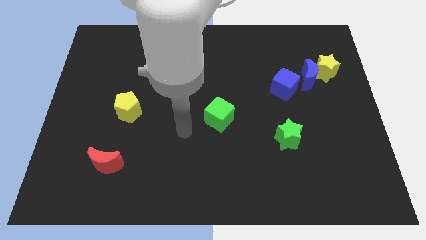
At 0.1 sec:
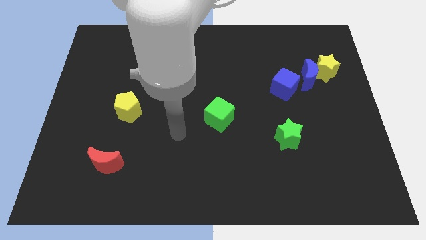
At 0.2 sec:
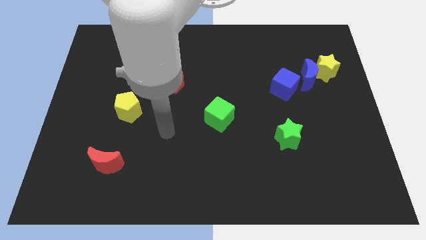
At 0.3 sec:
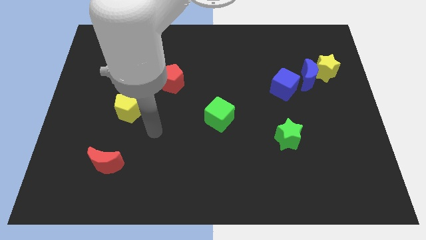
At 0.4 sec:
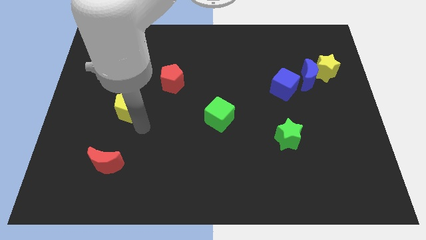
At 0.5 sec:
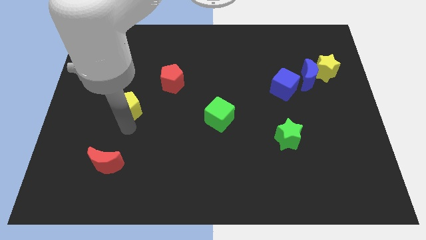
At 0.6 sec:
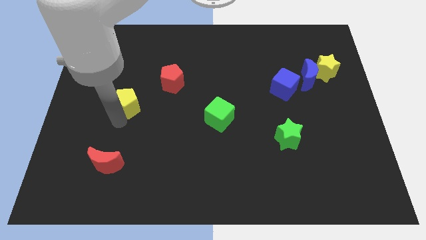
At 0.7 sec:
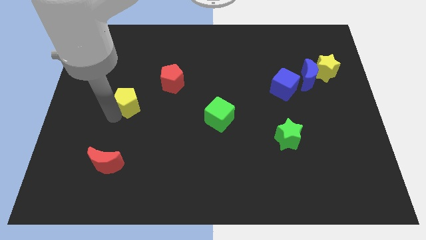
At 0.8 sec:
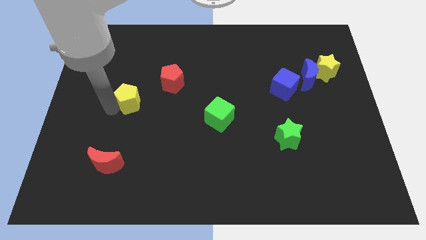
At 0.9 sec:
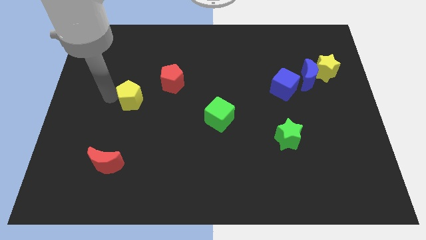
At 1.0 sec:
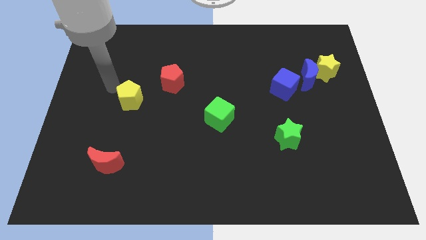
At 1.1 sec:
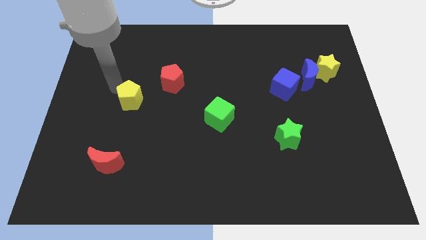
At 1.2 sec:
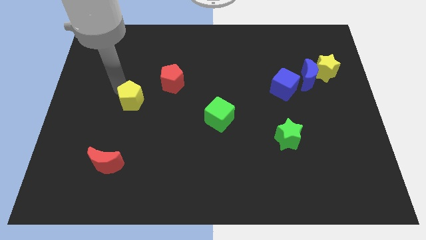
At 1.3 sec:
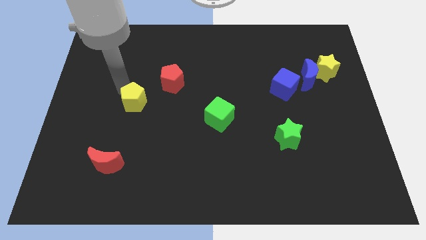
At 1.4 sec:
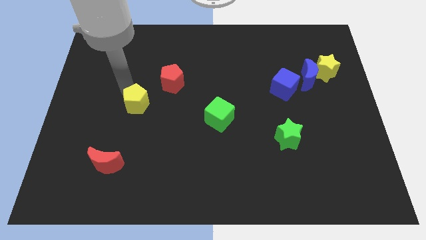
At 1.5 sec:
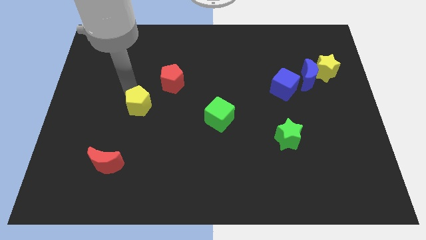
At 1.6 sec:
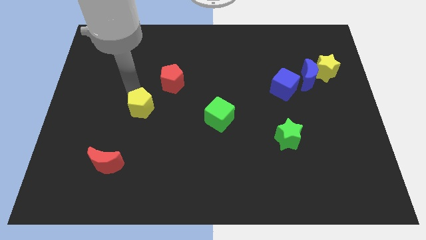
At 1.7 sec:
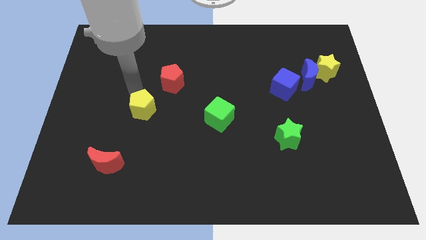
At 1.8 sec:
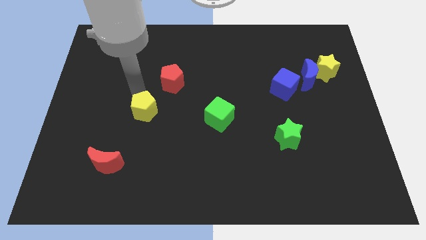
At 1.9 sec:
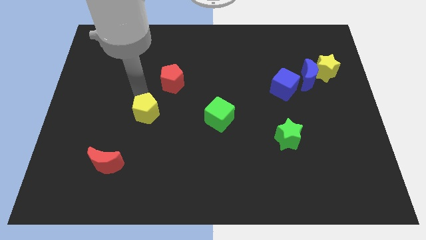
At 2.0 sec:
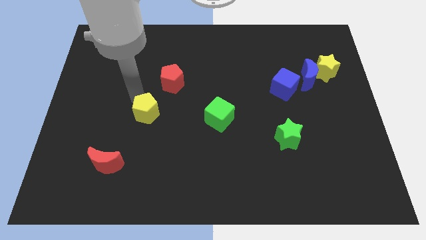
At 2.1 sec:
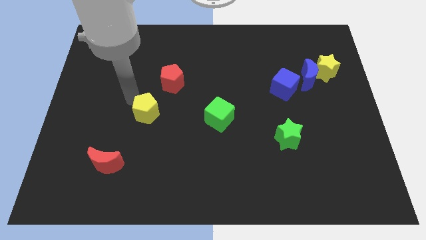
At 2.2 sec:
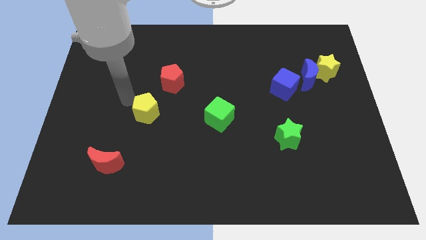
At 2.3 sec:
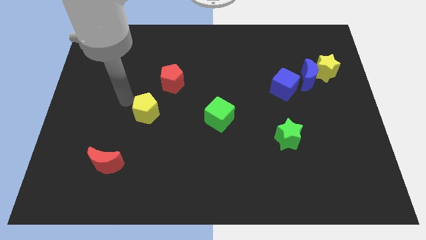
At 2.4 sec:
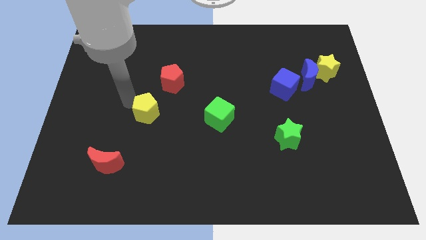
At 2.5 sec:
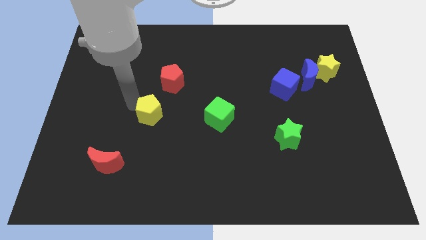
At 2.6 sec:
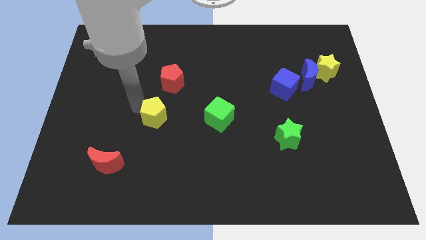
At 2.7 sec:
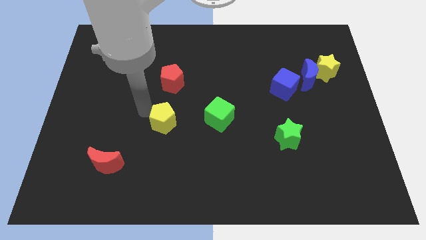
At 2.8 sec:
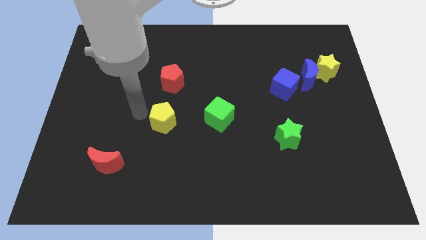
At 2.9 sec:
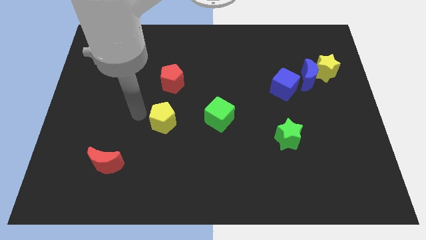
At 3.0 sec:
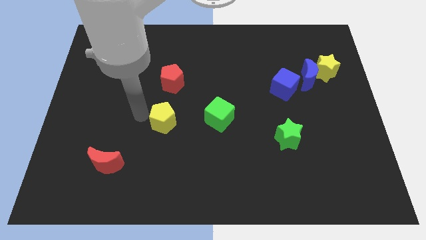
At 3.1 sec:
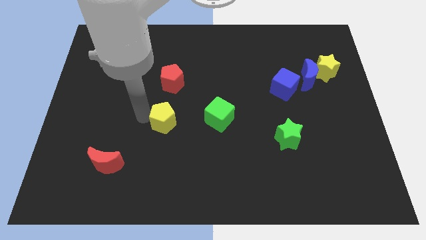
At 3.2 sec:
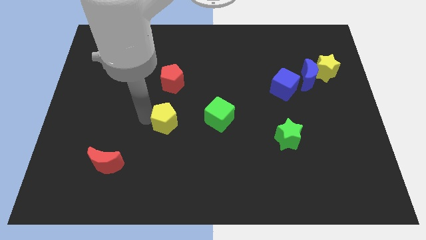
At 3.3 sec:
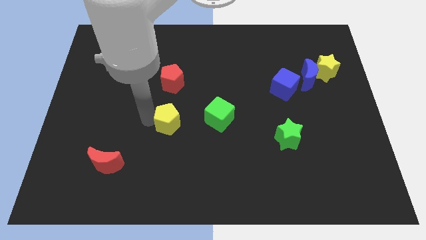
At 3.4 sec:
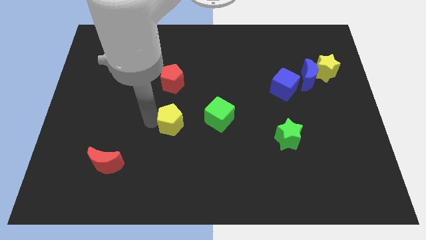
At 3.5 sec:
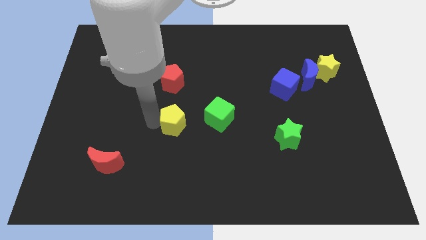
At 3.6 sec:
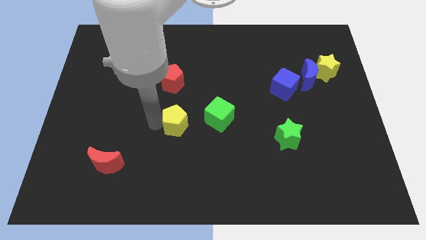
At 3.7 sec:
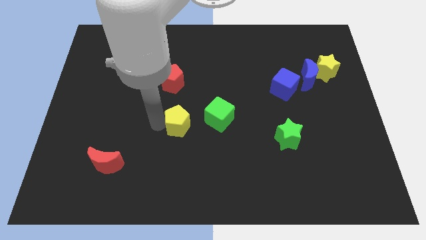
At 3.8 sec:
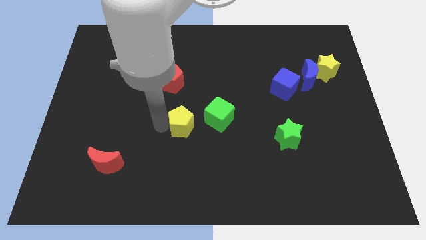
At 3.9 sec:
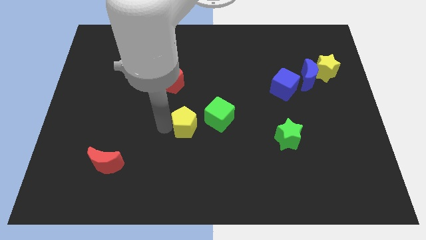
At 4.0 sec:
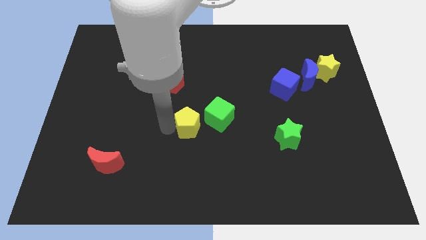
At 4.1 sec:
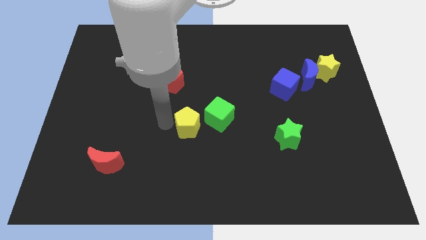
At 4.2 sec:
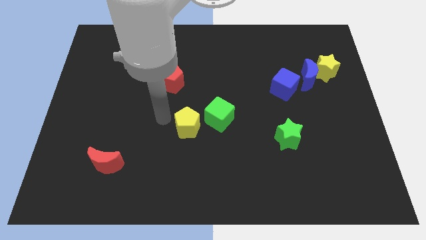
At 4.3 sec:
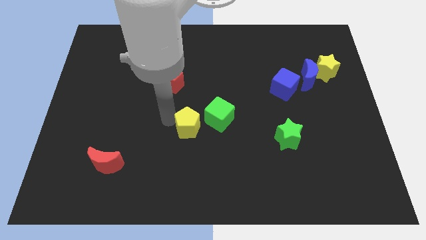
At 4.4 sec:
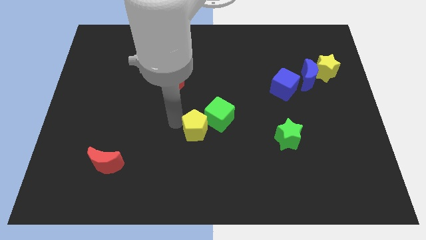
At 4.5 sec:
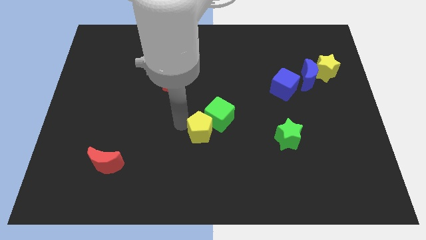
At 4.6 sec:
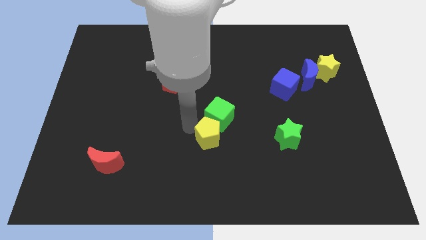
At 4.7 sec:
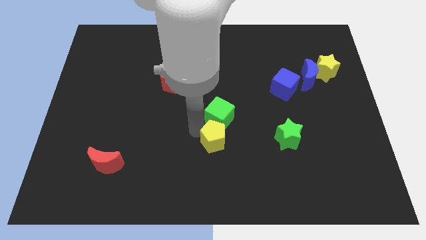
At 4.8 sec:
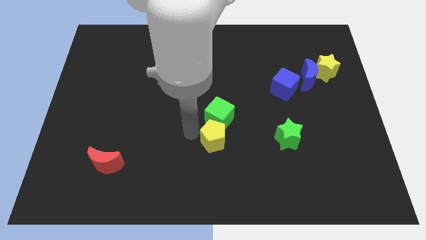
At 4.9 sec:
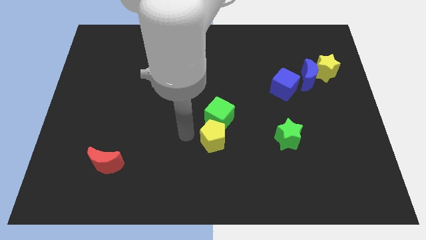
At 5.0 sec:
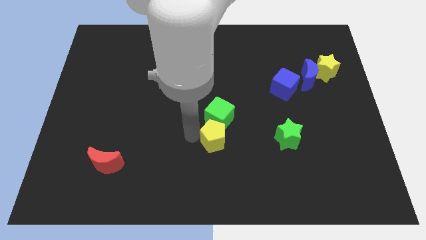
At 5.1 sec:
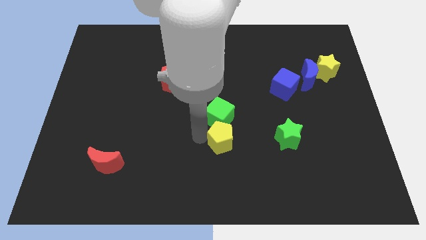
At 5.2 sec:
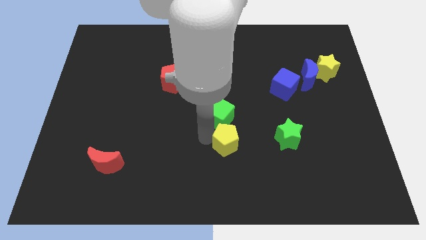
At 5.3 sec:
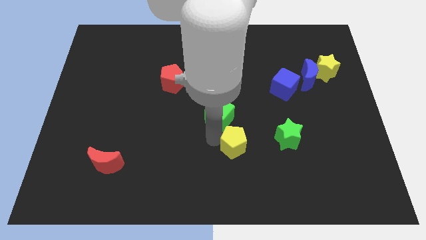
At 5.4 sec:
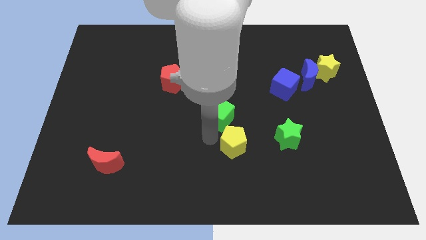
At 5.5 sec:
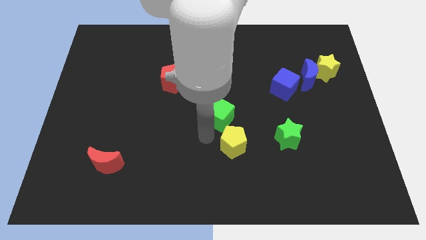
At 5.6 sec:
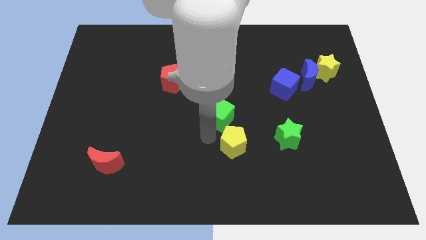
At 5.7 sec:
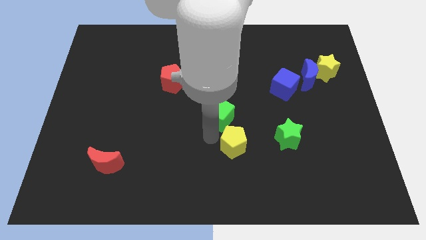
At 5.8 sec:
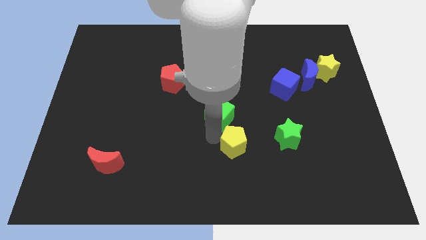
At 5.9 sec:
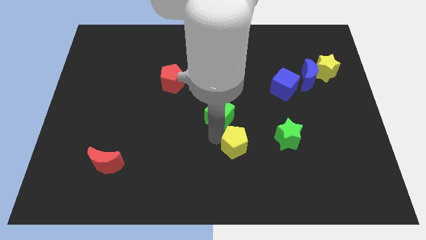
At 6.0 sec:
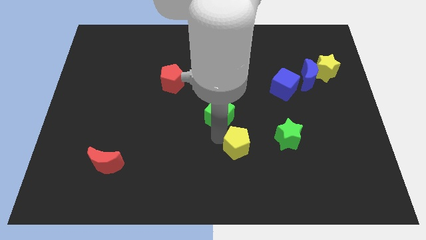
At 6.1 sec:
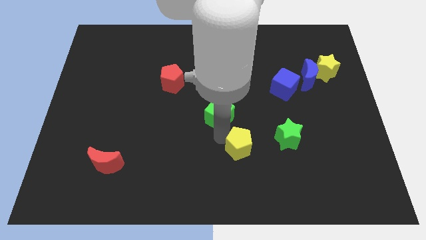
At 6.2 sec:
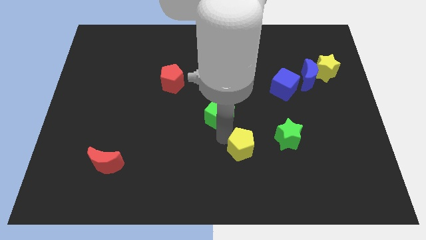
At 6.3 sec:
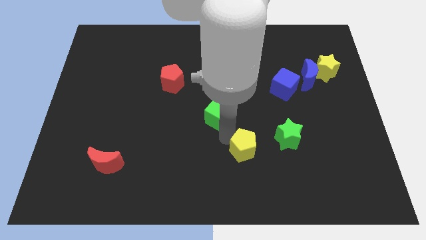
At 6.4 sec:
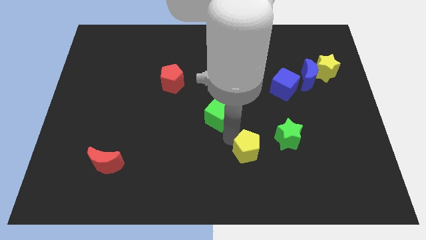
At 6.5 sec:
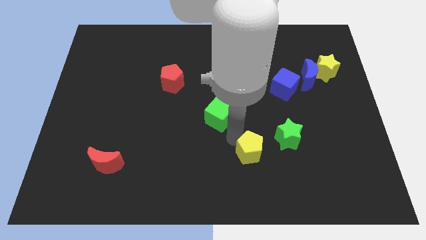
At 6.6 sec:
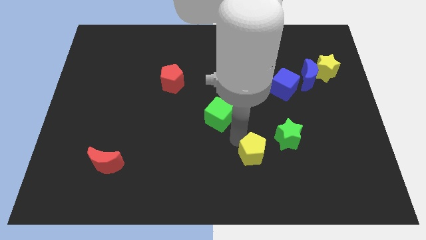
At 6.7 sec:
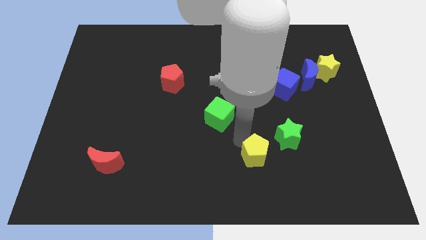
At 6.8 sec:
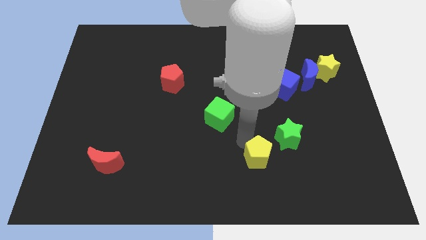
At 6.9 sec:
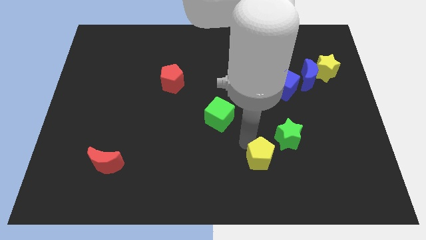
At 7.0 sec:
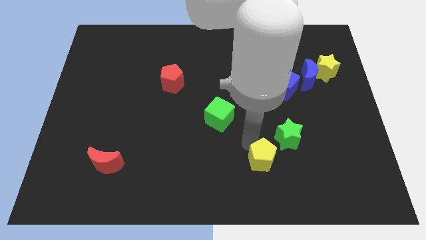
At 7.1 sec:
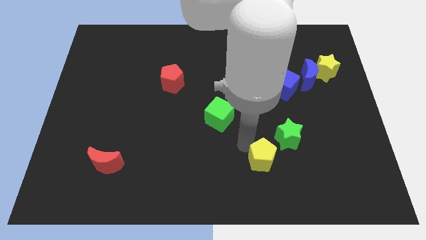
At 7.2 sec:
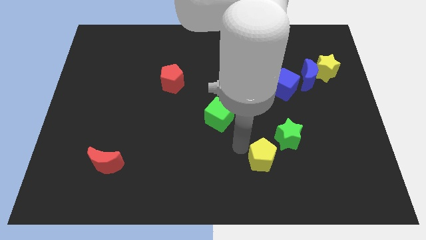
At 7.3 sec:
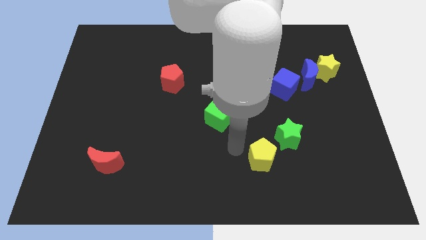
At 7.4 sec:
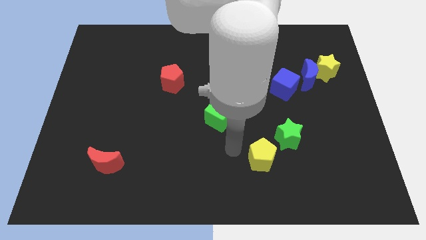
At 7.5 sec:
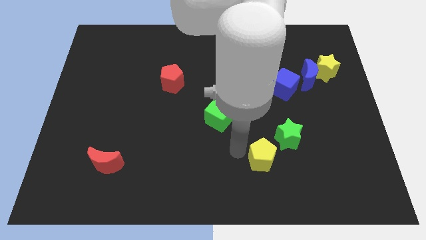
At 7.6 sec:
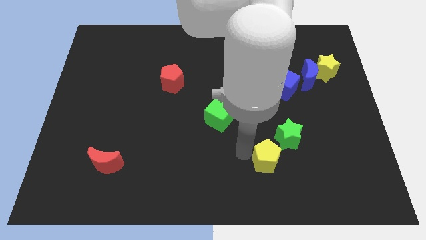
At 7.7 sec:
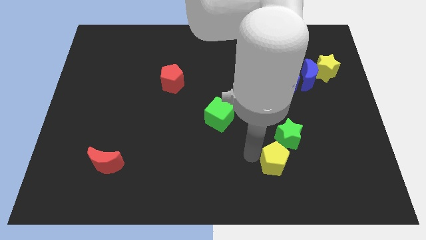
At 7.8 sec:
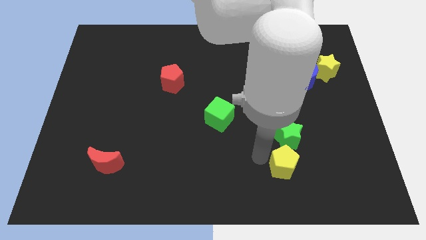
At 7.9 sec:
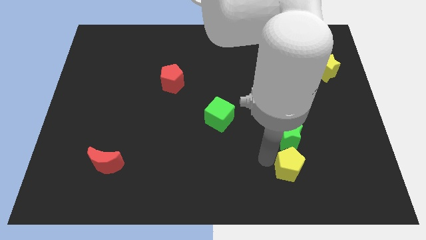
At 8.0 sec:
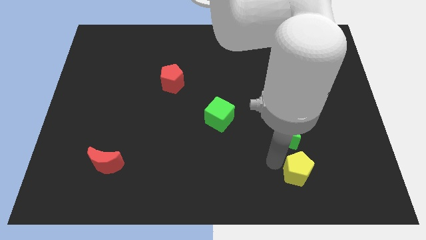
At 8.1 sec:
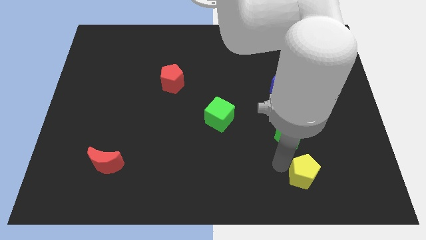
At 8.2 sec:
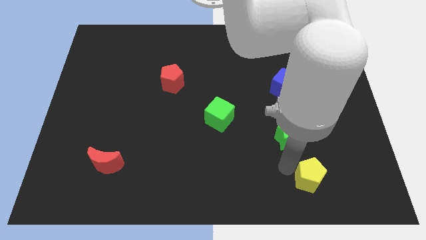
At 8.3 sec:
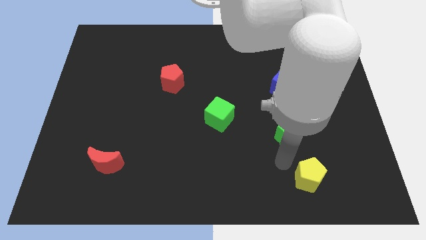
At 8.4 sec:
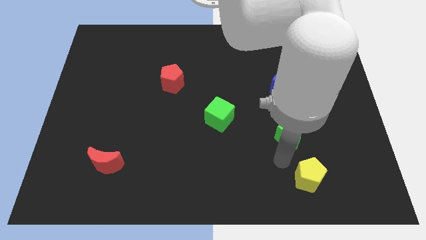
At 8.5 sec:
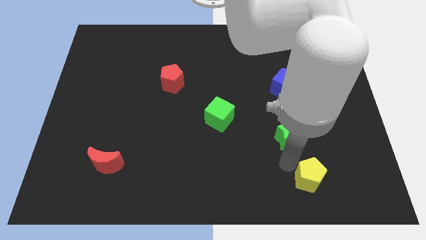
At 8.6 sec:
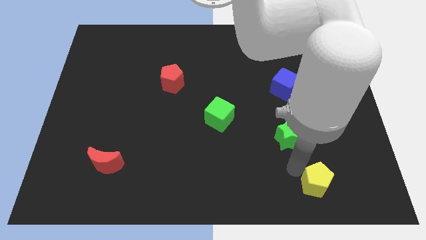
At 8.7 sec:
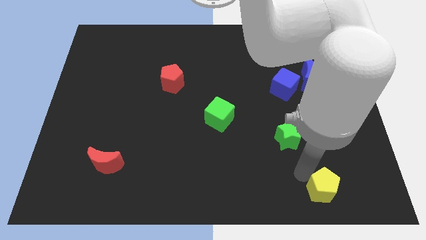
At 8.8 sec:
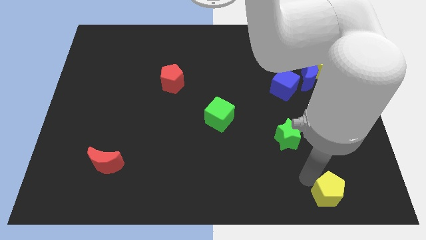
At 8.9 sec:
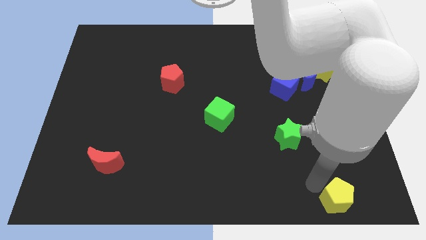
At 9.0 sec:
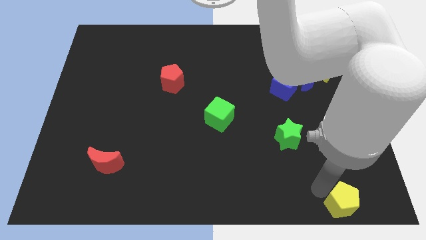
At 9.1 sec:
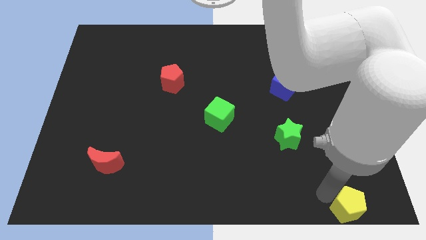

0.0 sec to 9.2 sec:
put the yellow pentagon to the bottom right corner
